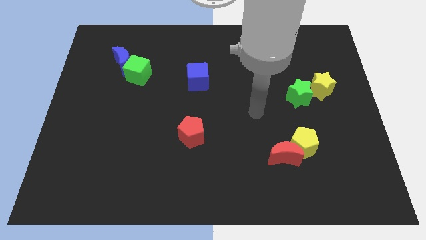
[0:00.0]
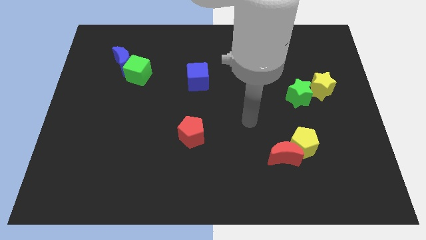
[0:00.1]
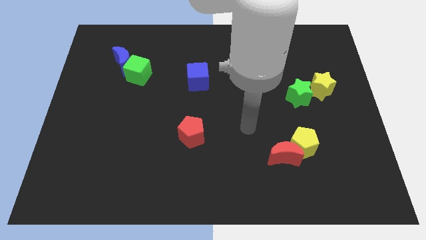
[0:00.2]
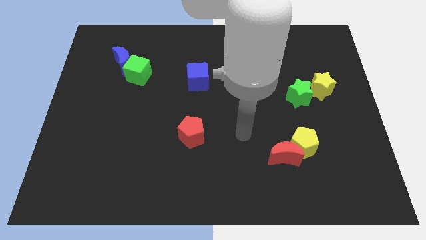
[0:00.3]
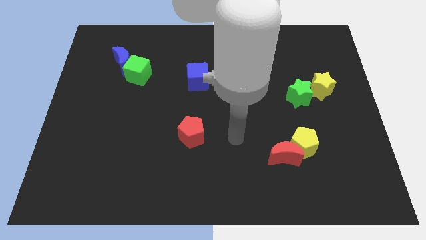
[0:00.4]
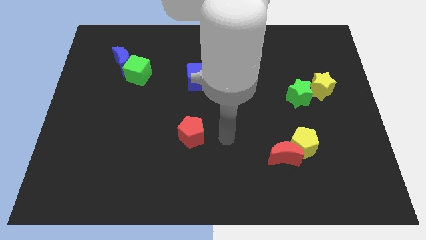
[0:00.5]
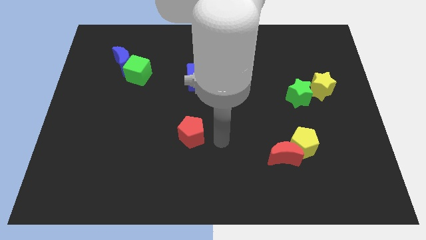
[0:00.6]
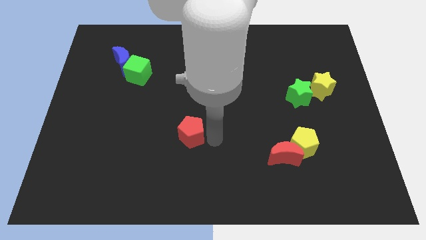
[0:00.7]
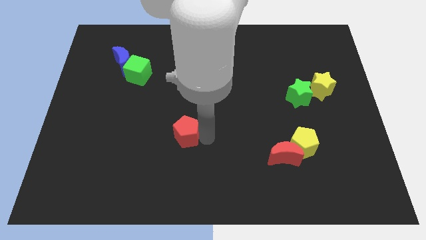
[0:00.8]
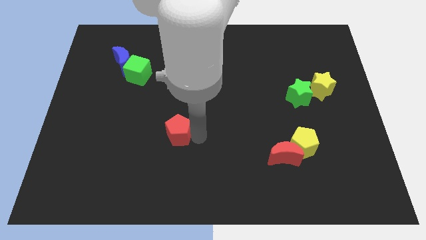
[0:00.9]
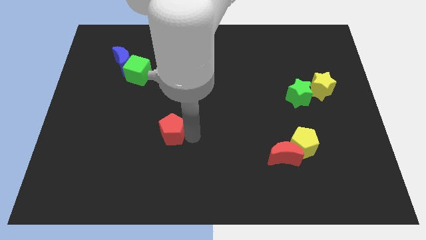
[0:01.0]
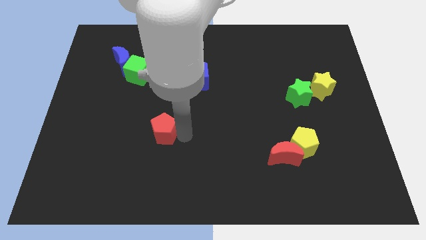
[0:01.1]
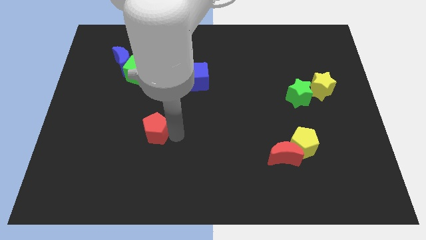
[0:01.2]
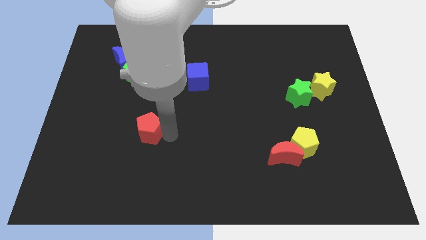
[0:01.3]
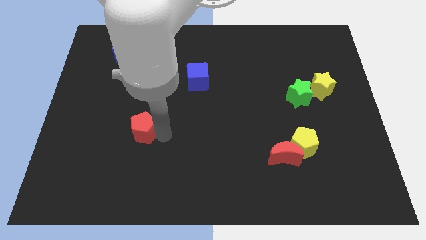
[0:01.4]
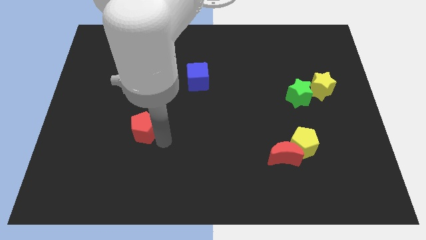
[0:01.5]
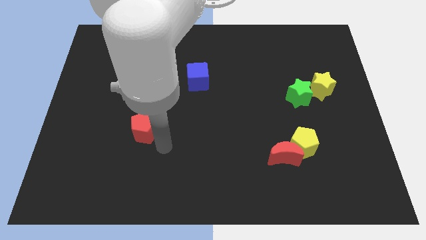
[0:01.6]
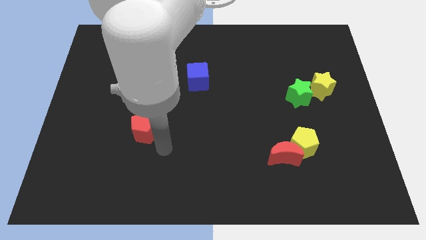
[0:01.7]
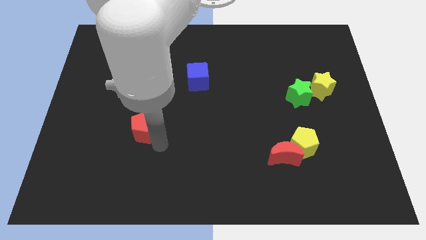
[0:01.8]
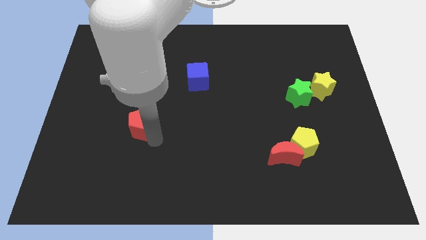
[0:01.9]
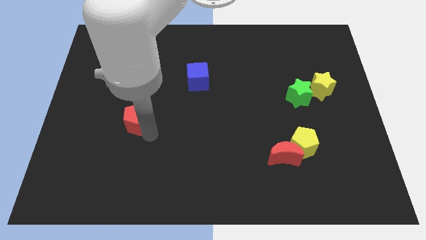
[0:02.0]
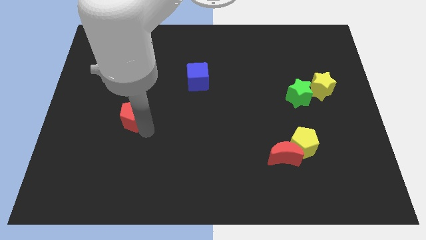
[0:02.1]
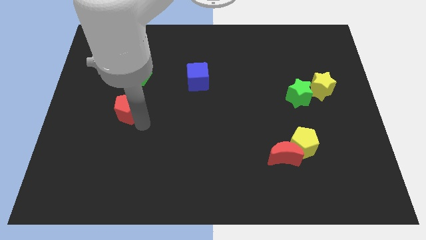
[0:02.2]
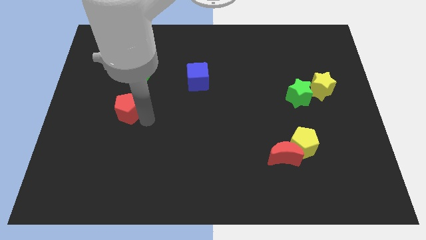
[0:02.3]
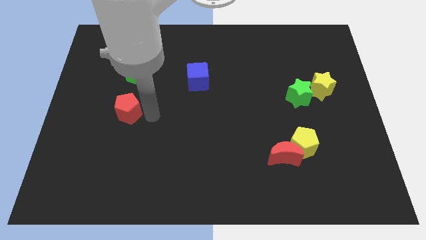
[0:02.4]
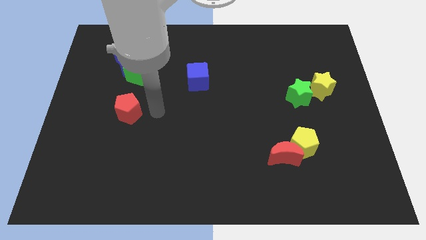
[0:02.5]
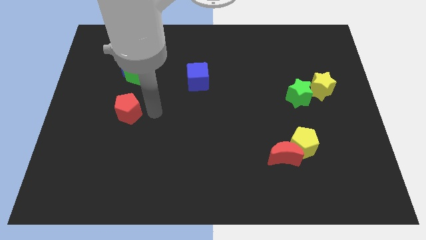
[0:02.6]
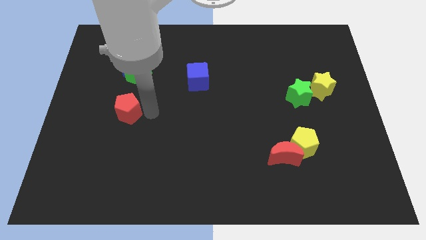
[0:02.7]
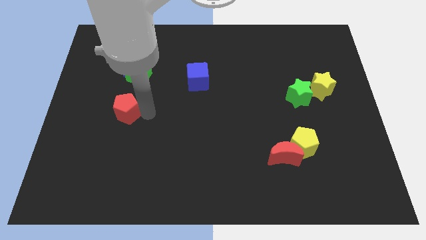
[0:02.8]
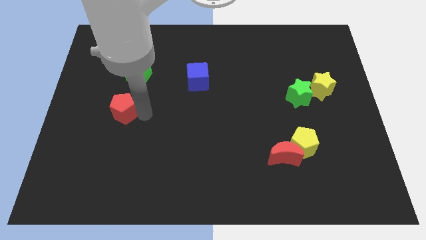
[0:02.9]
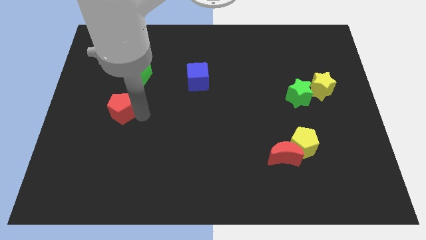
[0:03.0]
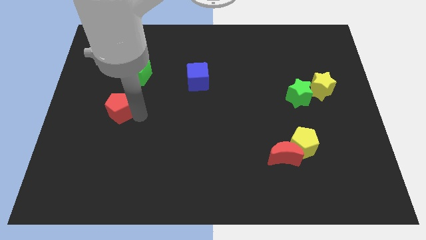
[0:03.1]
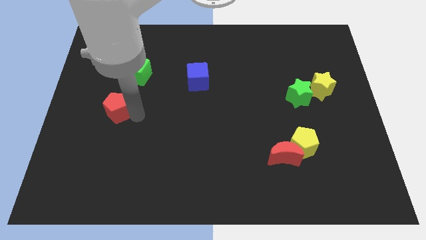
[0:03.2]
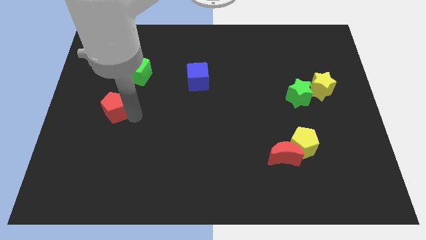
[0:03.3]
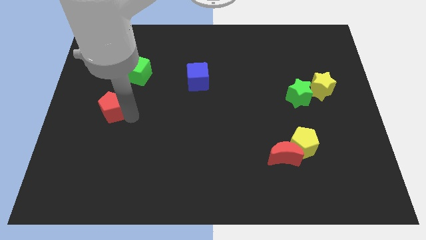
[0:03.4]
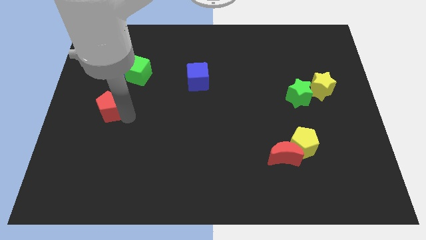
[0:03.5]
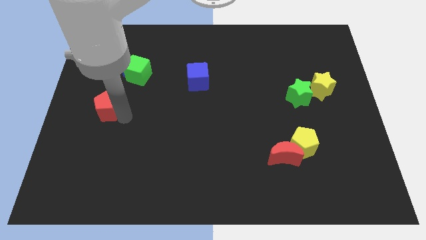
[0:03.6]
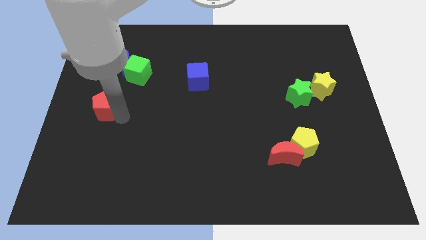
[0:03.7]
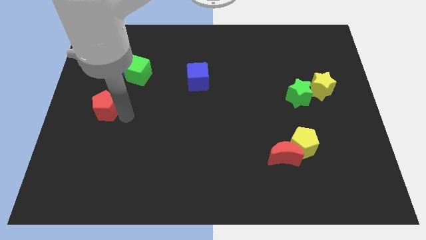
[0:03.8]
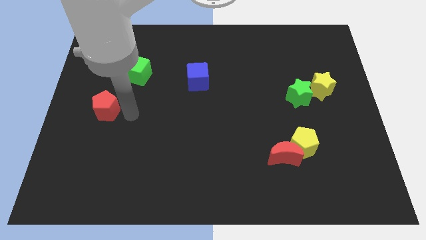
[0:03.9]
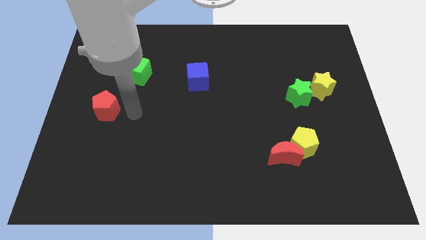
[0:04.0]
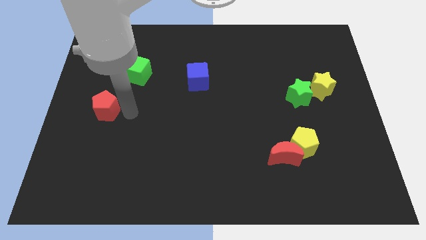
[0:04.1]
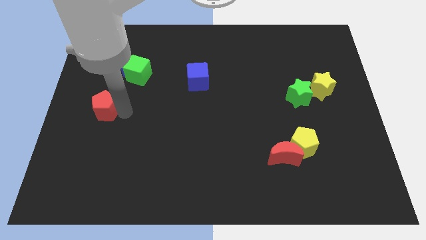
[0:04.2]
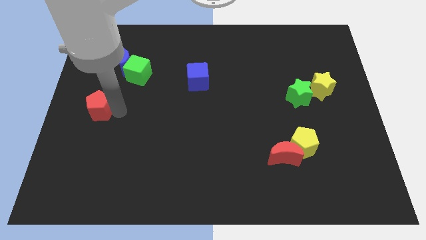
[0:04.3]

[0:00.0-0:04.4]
move the red pentagon to the center left

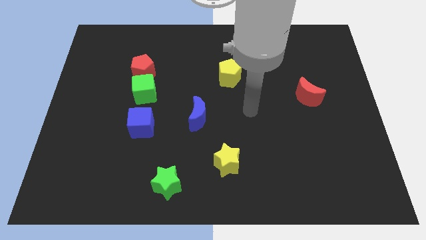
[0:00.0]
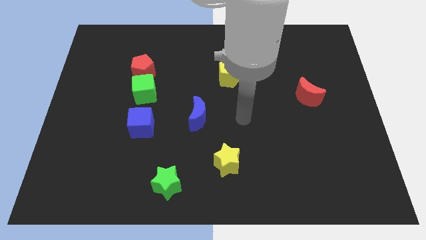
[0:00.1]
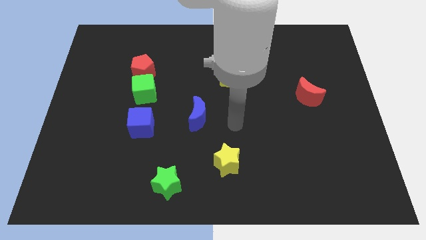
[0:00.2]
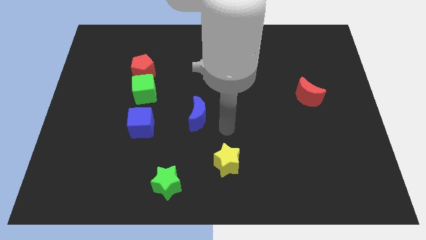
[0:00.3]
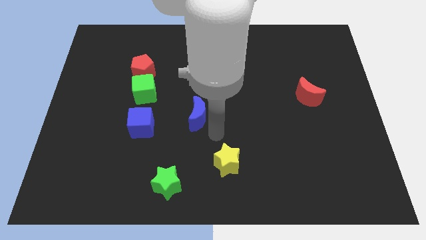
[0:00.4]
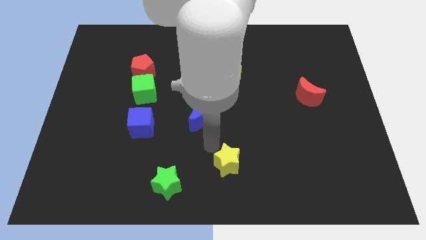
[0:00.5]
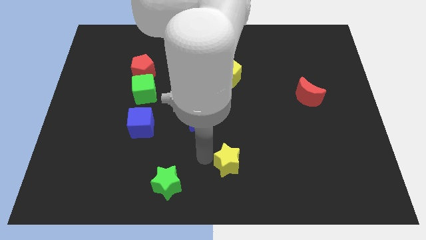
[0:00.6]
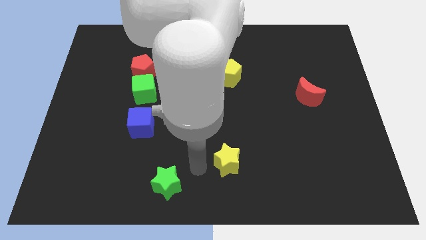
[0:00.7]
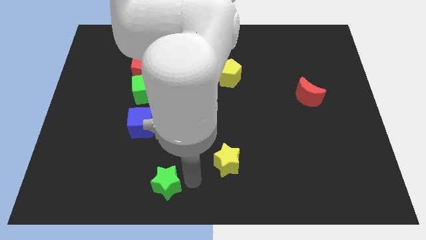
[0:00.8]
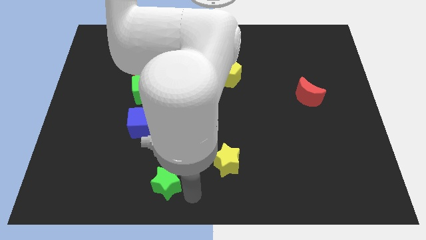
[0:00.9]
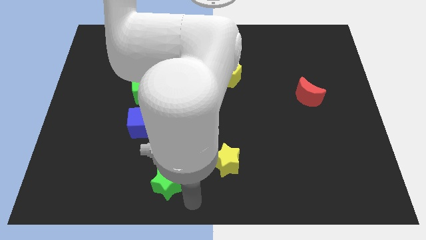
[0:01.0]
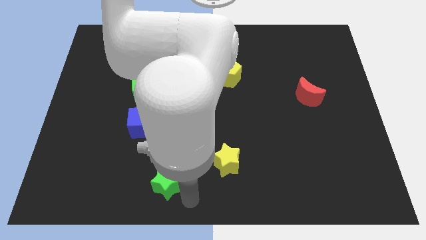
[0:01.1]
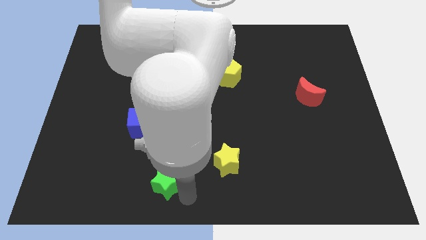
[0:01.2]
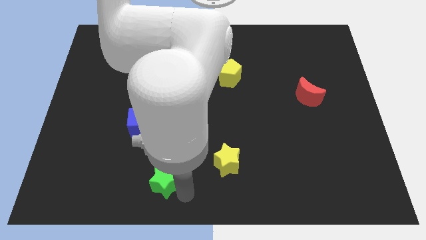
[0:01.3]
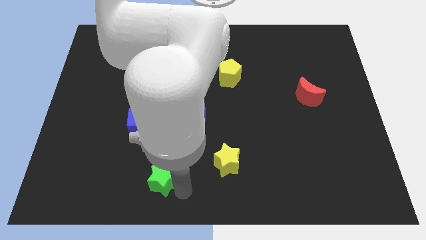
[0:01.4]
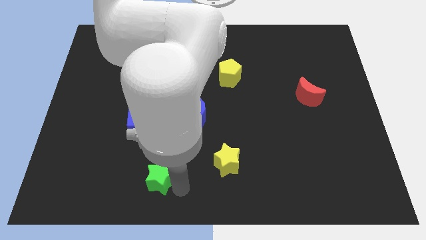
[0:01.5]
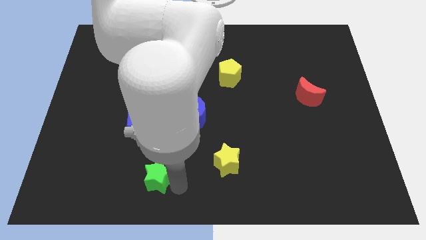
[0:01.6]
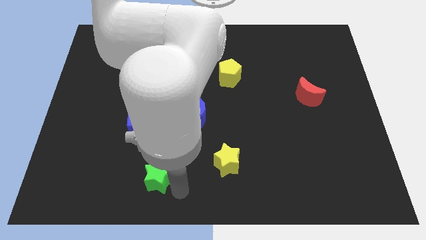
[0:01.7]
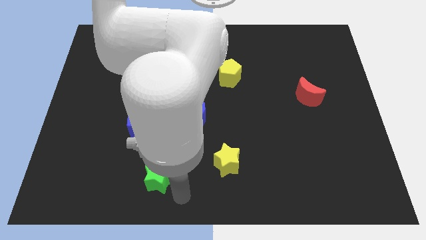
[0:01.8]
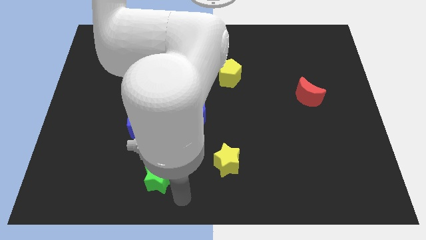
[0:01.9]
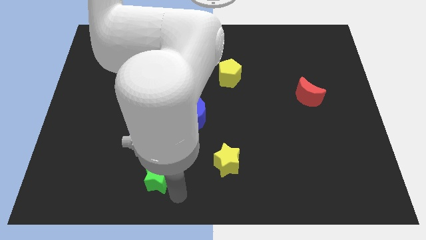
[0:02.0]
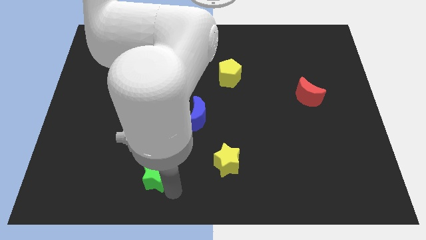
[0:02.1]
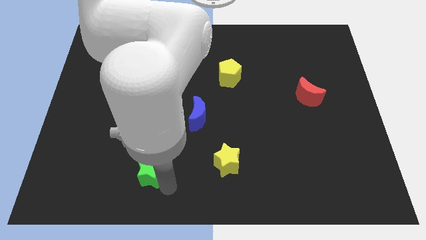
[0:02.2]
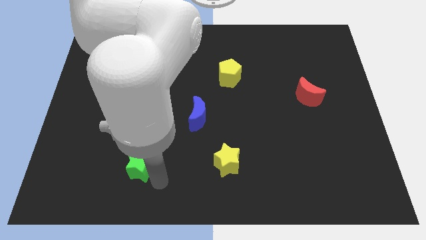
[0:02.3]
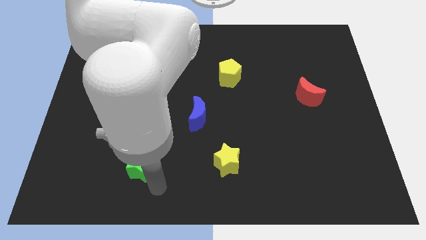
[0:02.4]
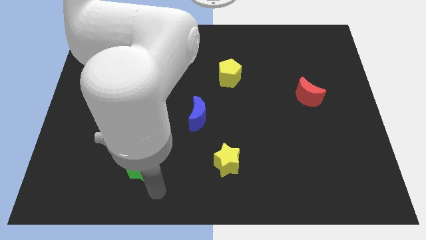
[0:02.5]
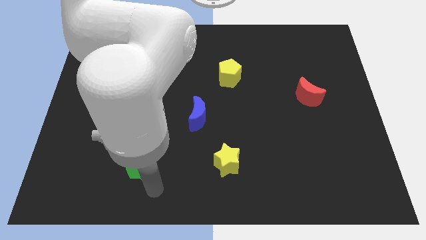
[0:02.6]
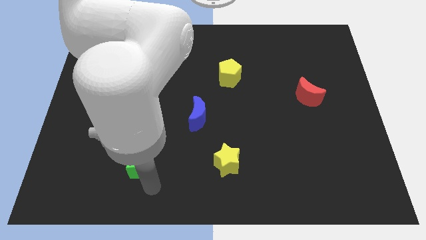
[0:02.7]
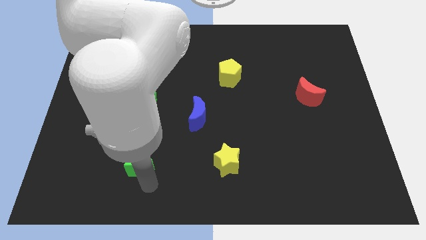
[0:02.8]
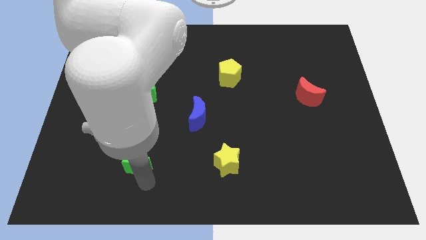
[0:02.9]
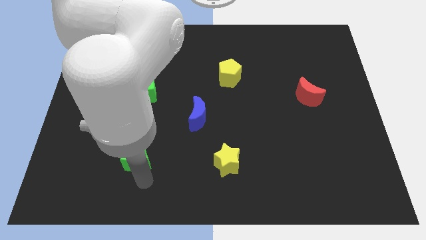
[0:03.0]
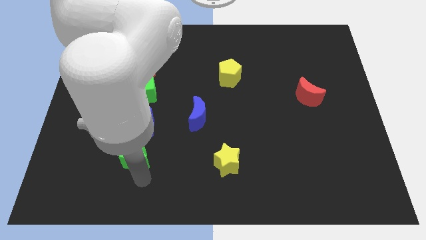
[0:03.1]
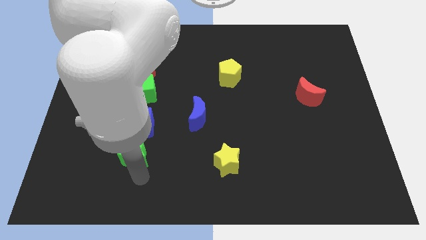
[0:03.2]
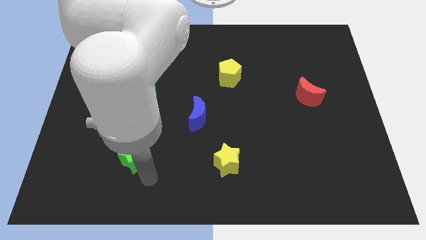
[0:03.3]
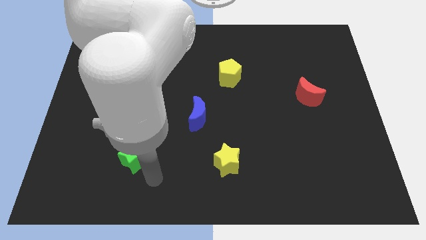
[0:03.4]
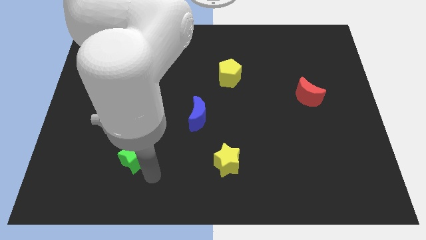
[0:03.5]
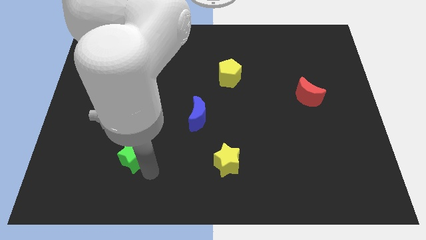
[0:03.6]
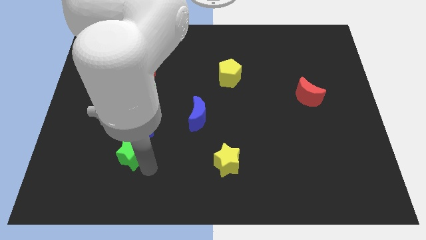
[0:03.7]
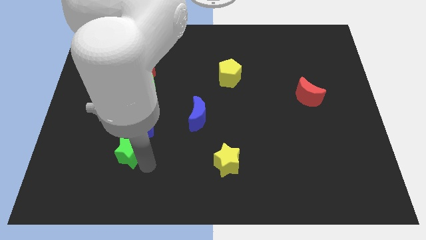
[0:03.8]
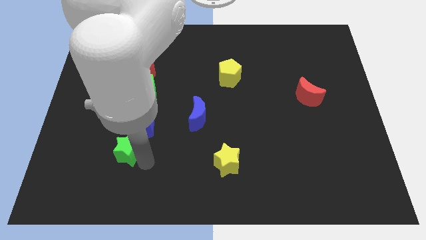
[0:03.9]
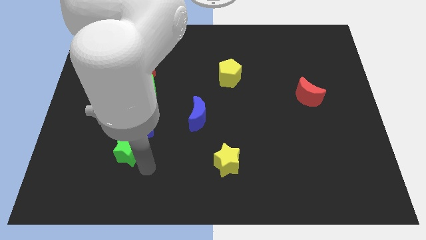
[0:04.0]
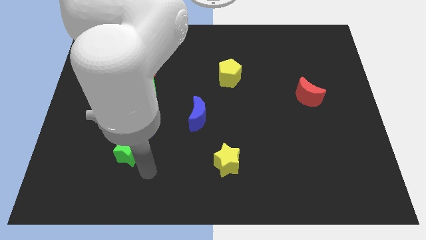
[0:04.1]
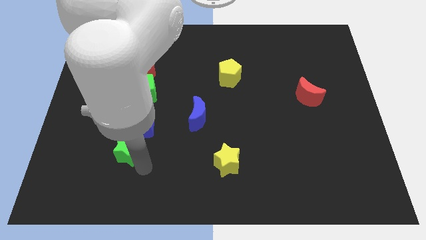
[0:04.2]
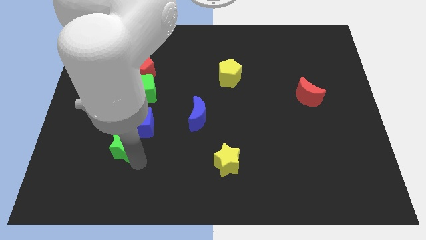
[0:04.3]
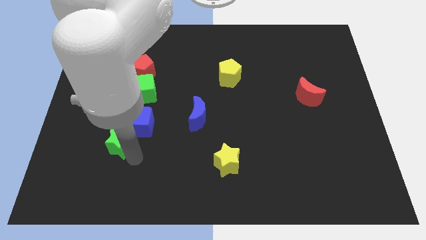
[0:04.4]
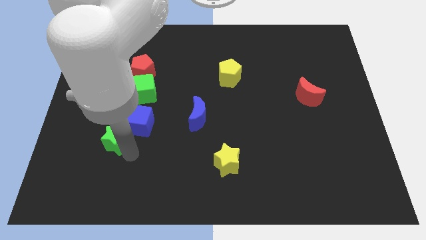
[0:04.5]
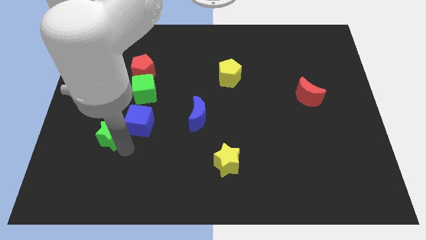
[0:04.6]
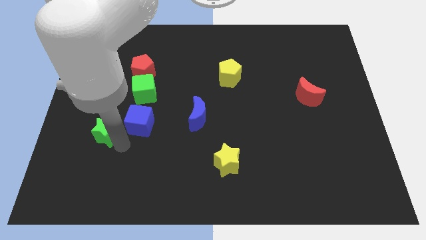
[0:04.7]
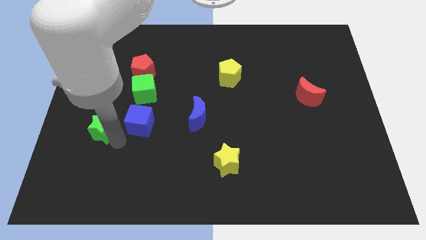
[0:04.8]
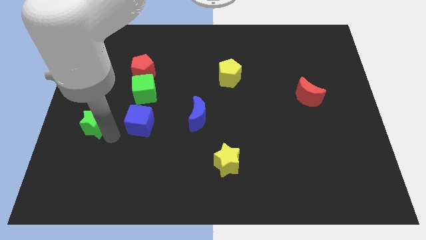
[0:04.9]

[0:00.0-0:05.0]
put the green star to the center left
